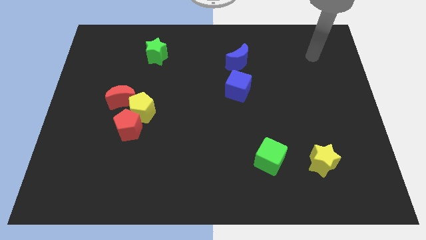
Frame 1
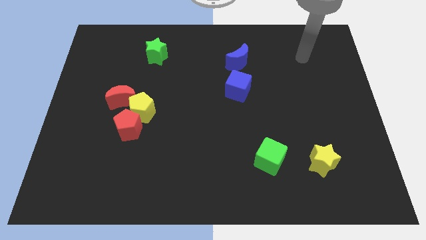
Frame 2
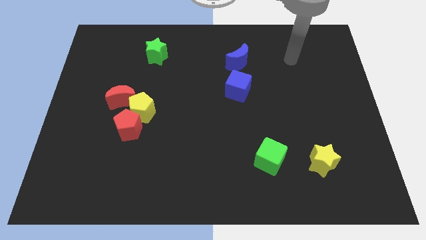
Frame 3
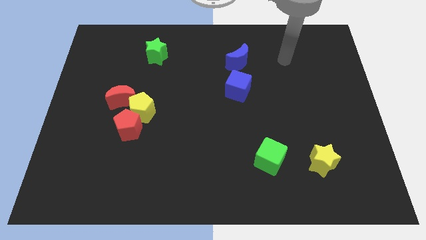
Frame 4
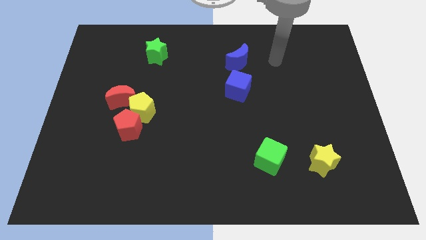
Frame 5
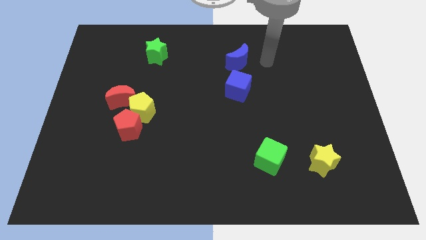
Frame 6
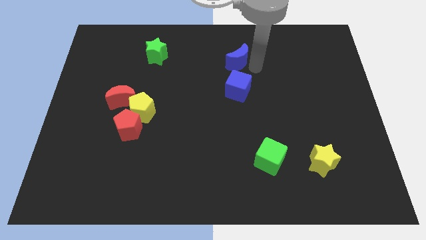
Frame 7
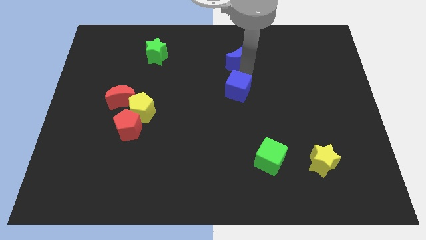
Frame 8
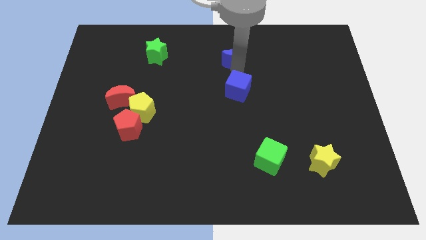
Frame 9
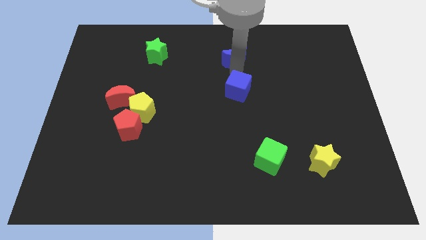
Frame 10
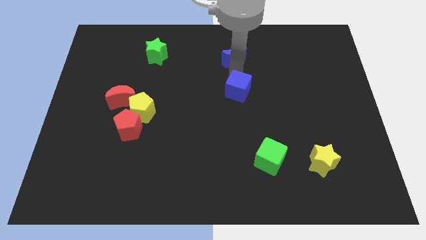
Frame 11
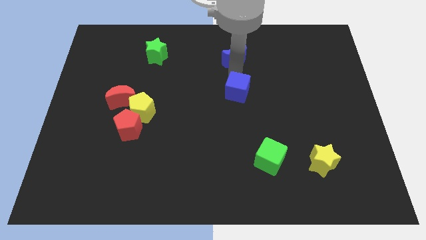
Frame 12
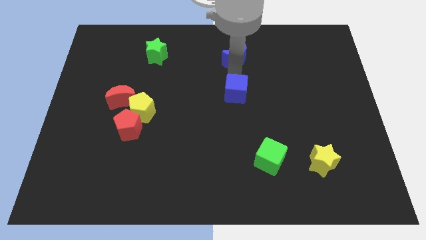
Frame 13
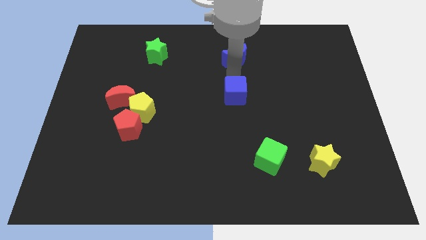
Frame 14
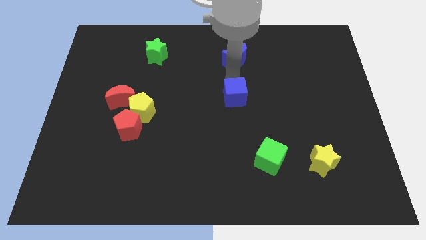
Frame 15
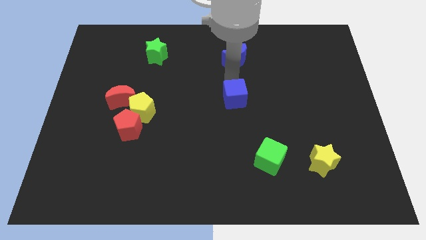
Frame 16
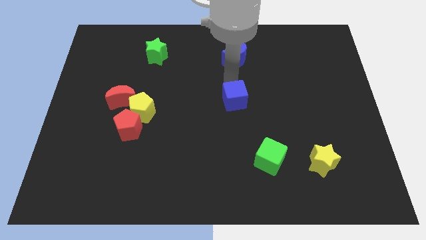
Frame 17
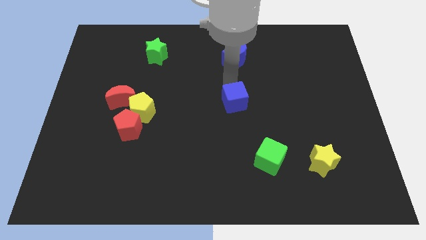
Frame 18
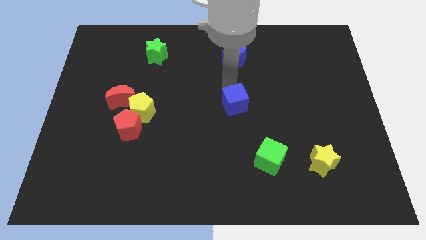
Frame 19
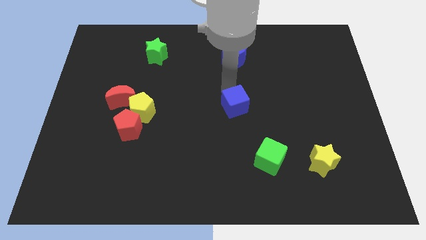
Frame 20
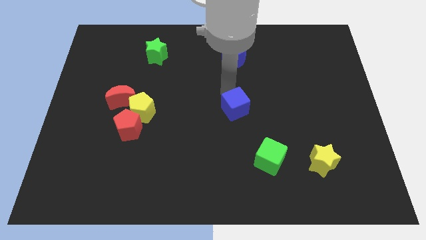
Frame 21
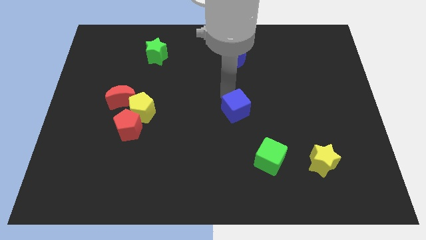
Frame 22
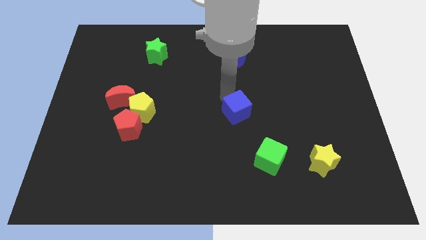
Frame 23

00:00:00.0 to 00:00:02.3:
push the blue cube a bit downwards

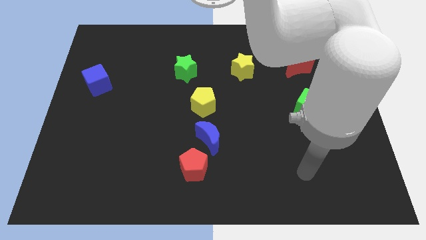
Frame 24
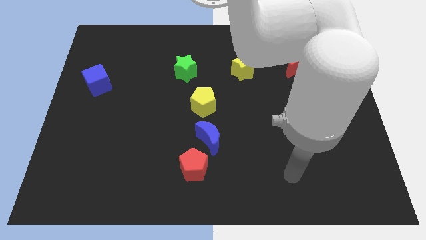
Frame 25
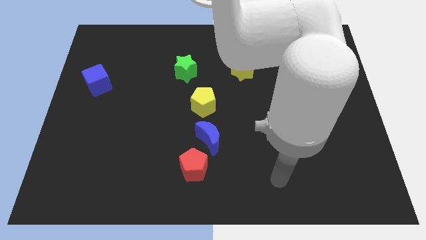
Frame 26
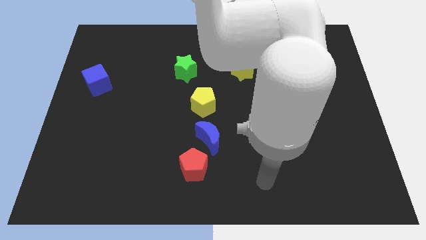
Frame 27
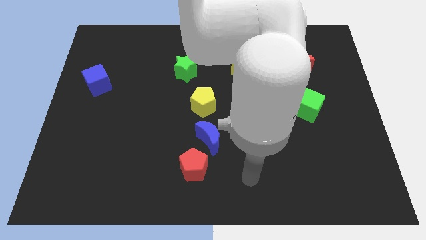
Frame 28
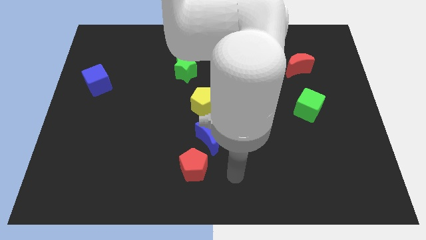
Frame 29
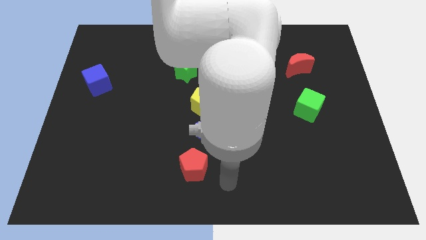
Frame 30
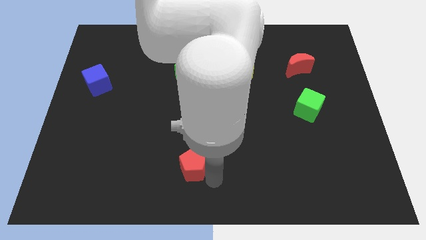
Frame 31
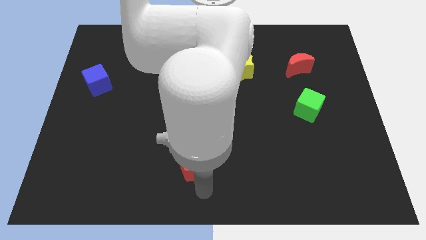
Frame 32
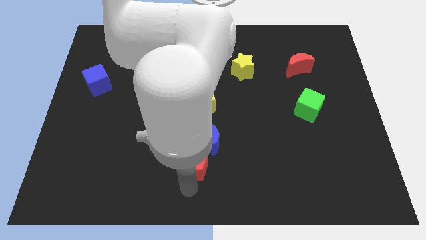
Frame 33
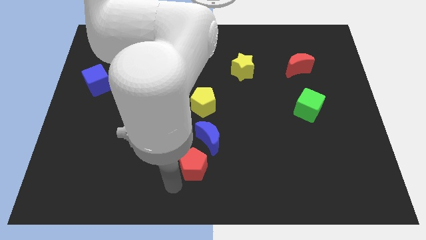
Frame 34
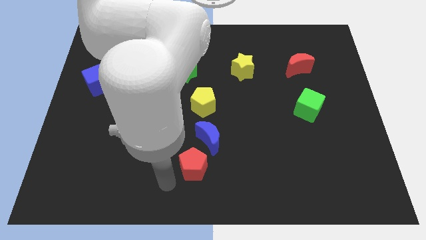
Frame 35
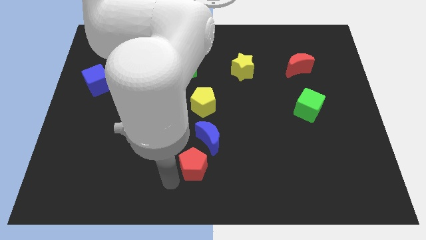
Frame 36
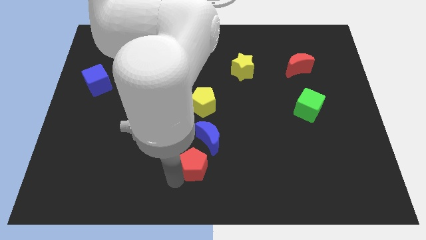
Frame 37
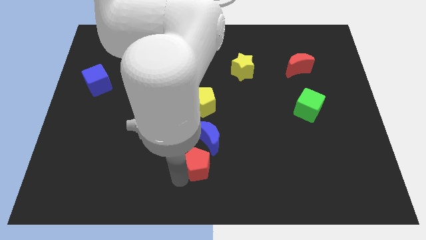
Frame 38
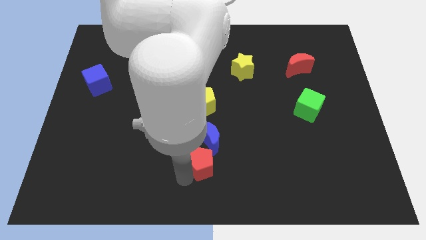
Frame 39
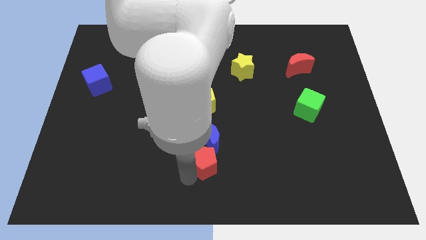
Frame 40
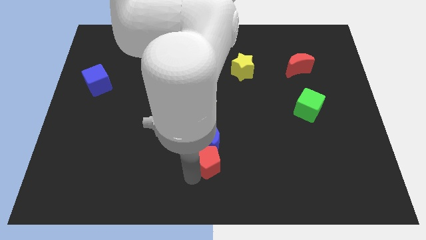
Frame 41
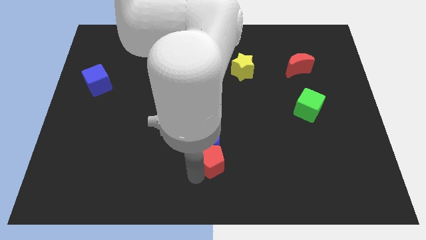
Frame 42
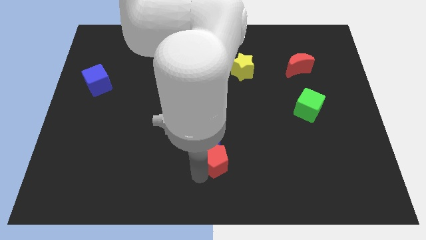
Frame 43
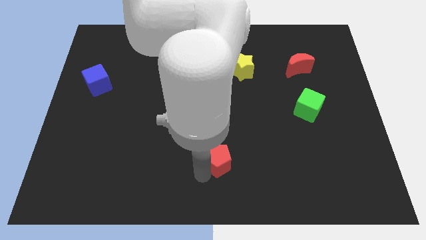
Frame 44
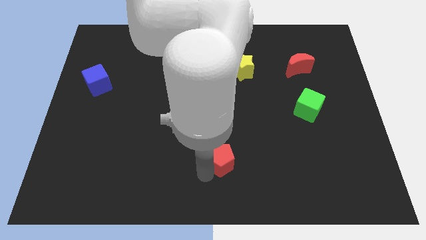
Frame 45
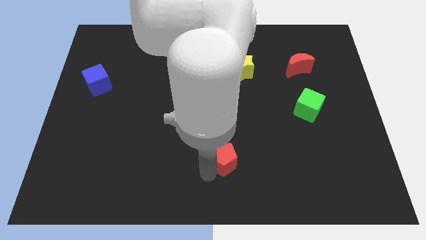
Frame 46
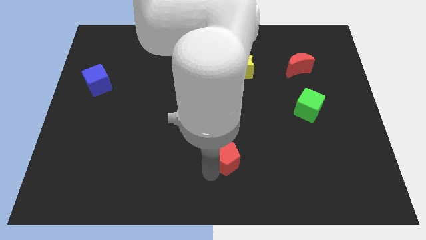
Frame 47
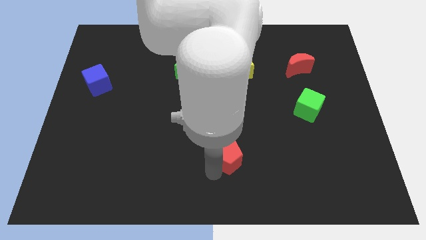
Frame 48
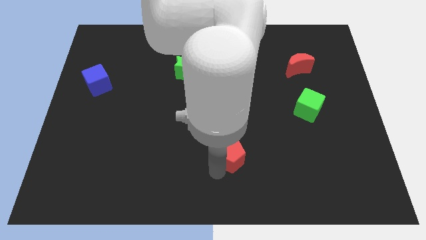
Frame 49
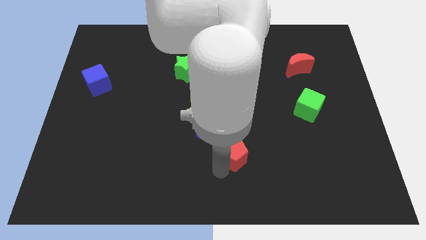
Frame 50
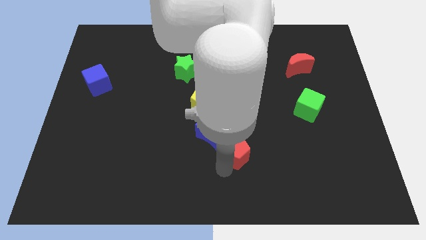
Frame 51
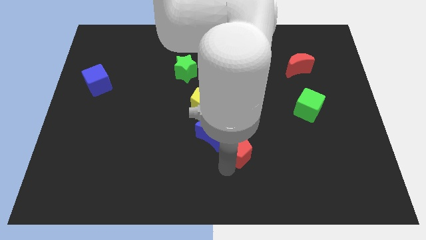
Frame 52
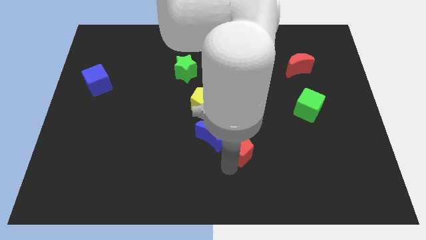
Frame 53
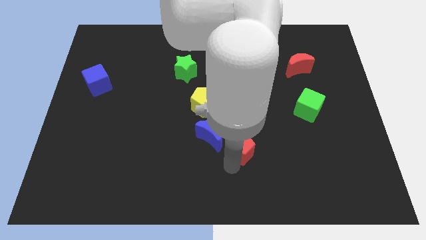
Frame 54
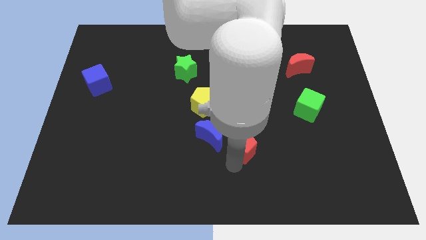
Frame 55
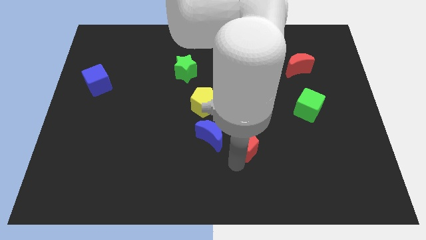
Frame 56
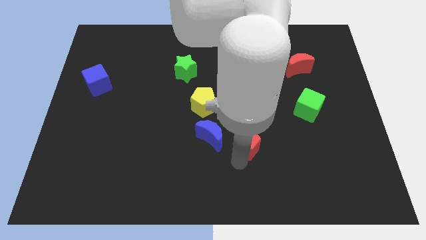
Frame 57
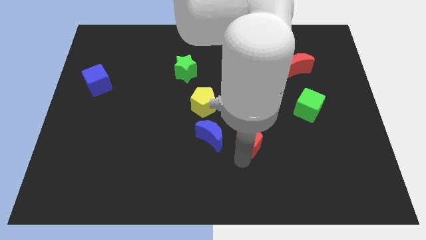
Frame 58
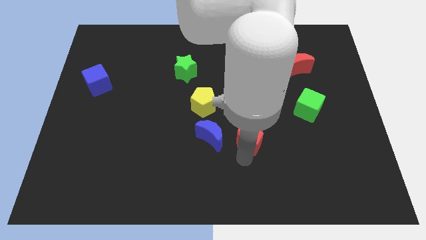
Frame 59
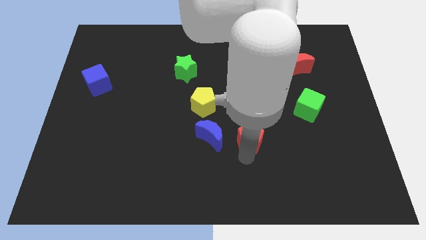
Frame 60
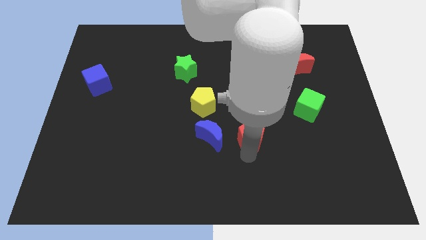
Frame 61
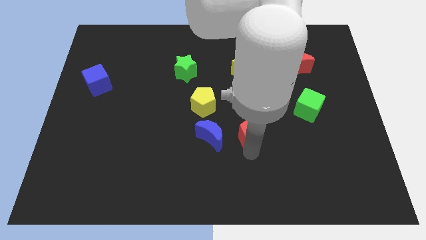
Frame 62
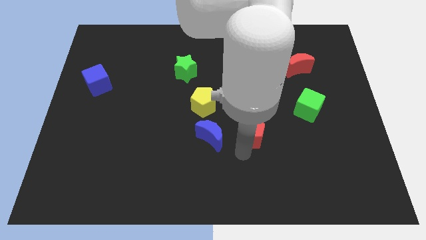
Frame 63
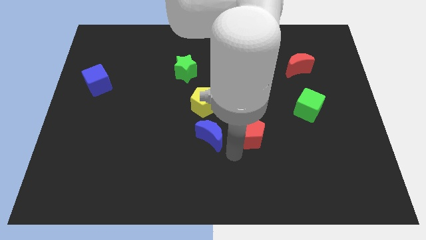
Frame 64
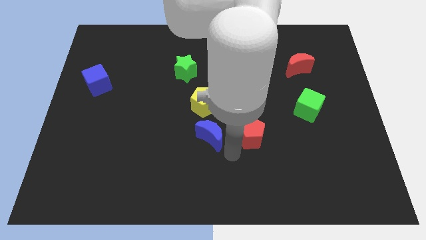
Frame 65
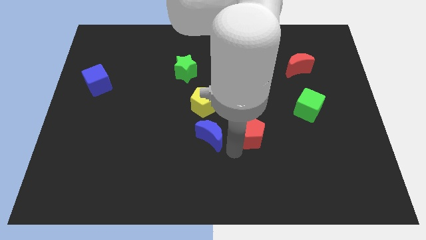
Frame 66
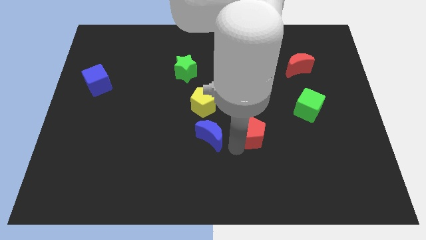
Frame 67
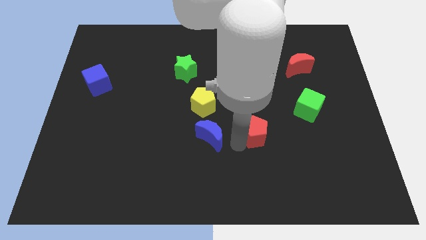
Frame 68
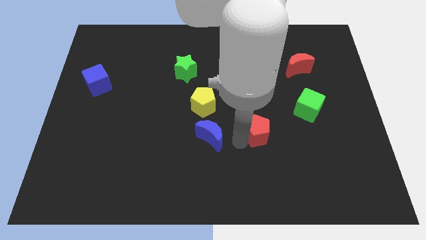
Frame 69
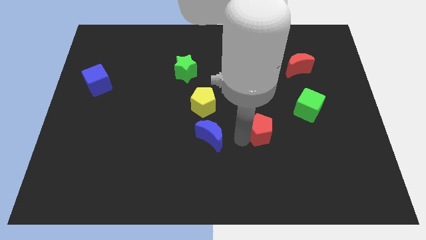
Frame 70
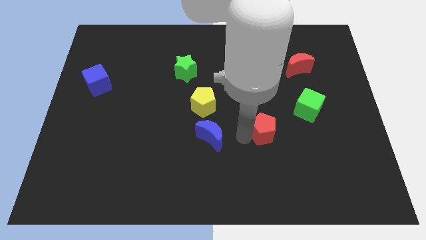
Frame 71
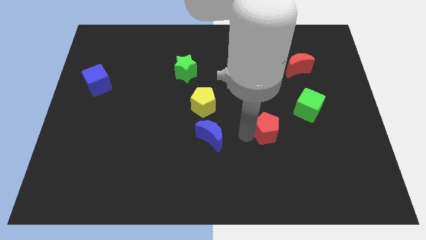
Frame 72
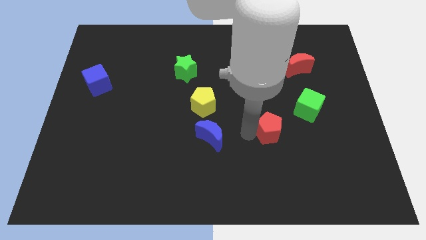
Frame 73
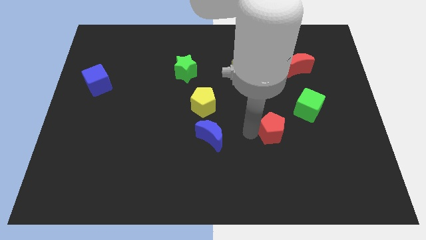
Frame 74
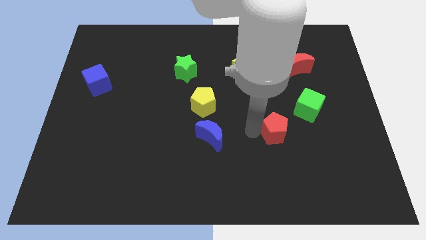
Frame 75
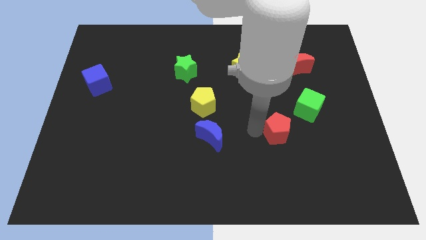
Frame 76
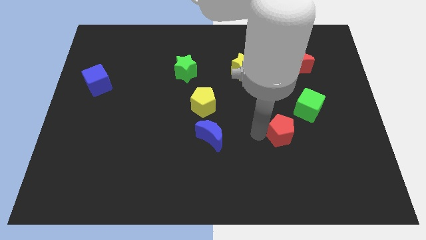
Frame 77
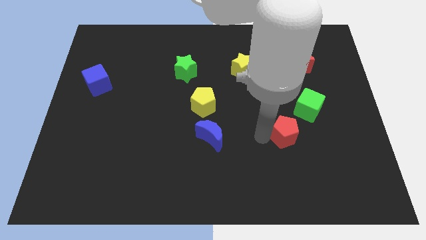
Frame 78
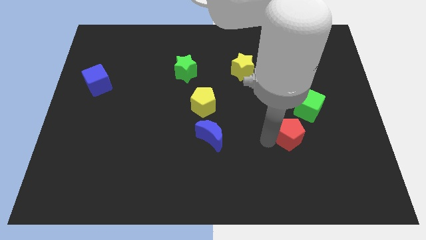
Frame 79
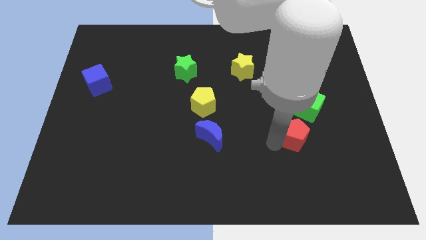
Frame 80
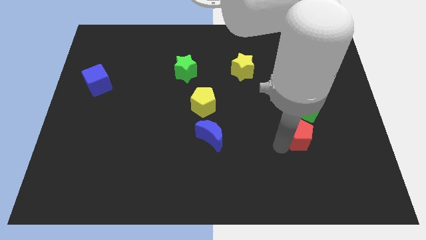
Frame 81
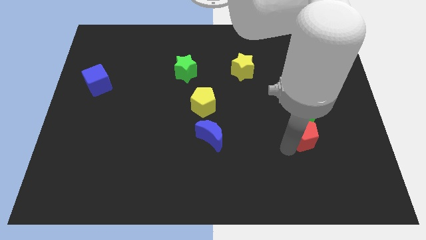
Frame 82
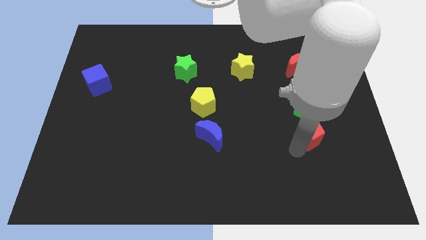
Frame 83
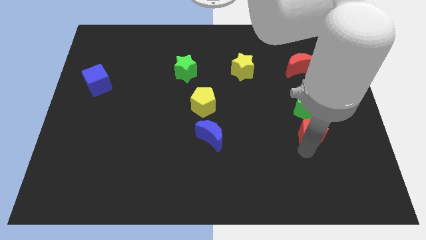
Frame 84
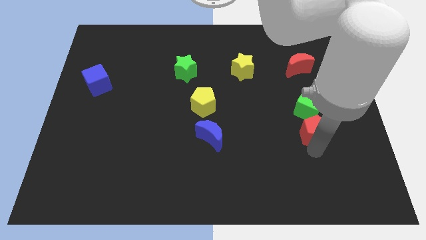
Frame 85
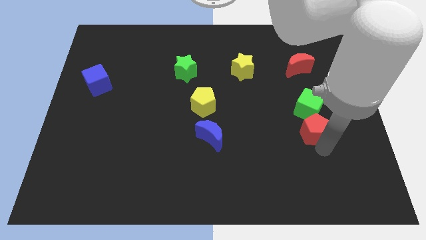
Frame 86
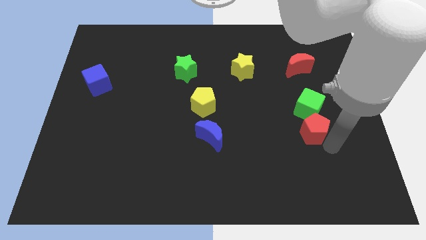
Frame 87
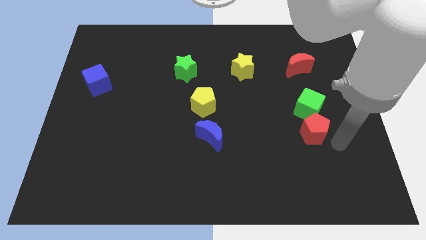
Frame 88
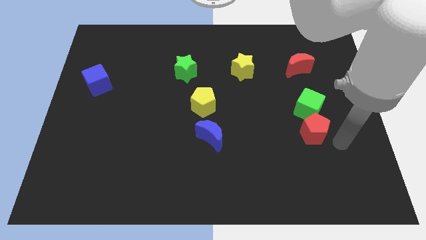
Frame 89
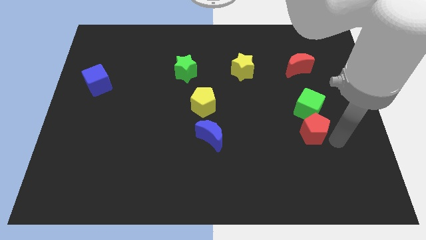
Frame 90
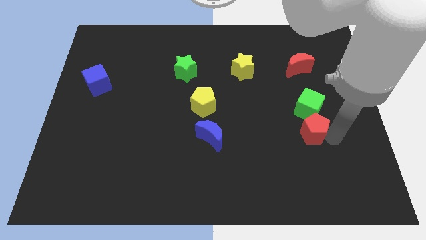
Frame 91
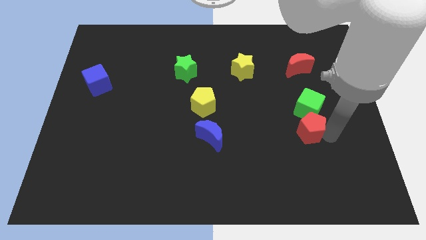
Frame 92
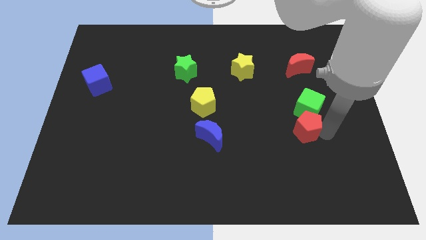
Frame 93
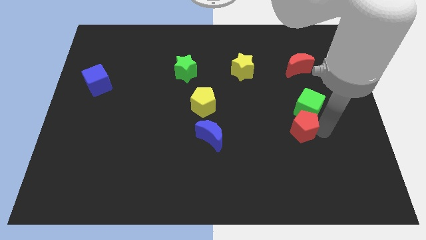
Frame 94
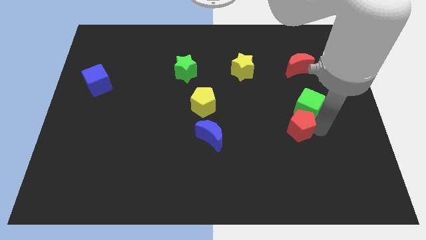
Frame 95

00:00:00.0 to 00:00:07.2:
slide the red pentagon up and right
